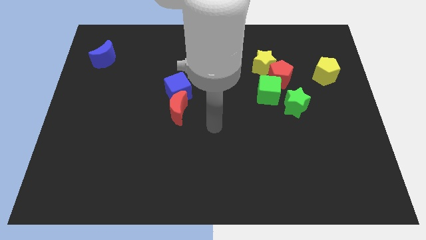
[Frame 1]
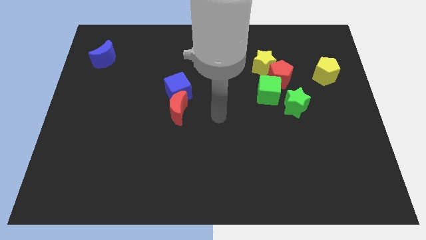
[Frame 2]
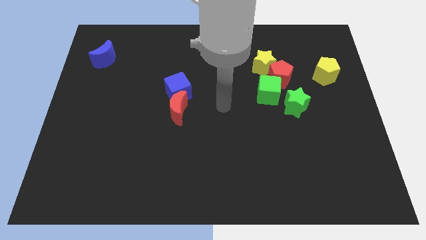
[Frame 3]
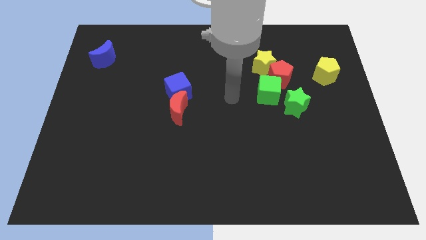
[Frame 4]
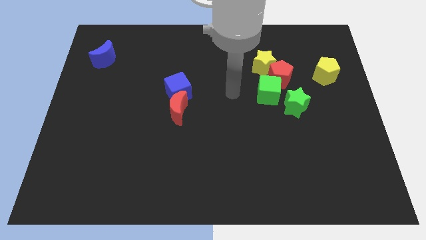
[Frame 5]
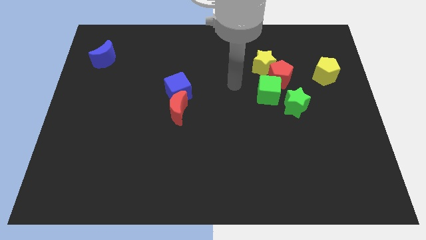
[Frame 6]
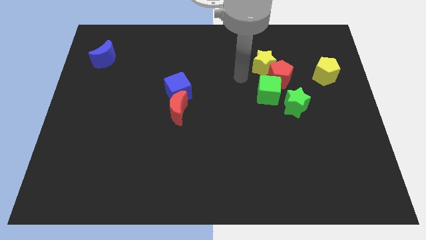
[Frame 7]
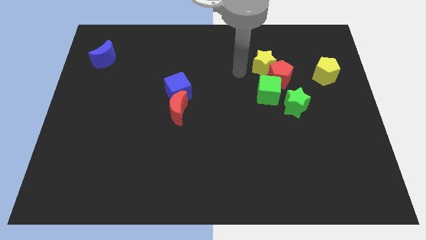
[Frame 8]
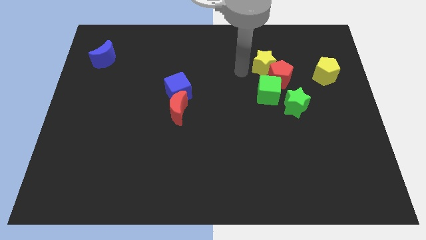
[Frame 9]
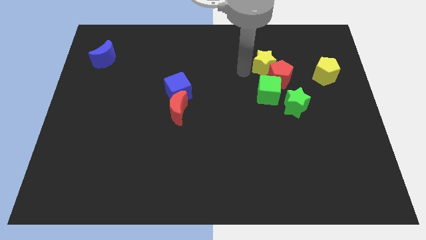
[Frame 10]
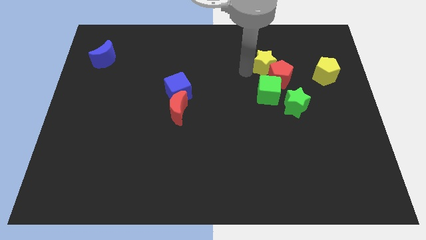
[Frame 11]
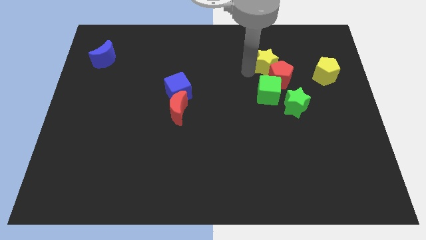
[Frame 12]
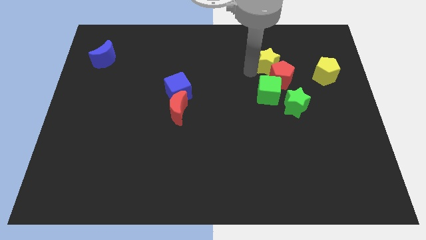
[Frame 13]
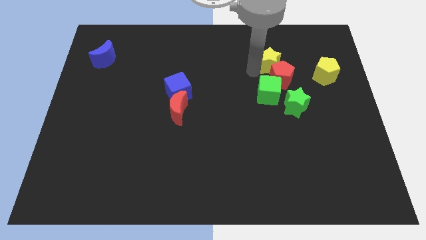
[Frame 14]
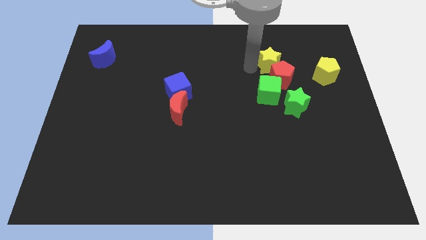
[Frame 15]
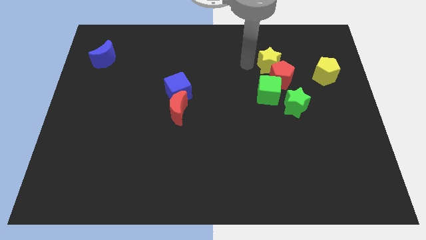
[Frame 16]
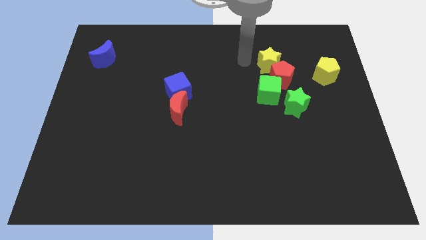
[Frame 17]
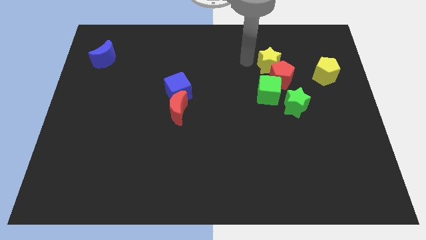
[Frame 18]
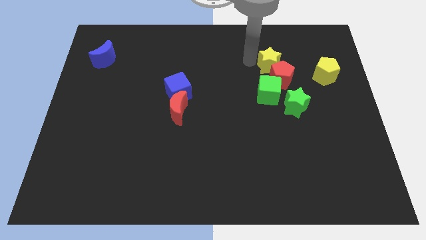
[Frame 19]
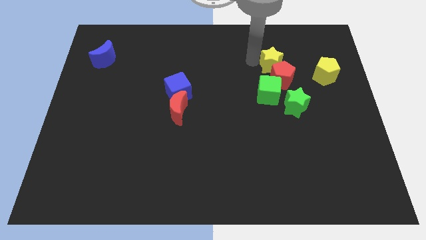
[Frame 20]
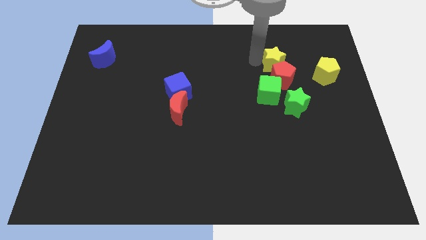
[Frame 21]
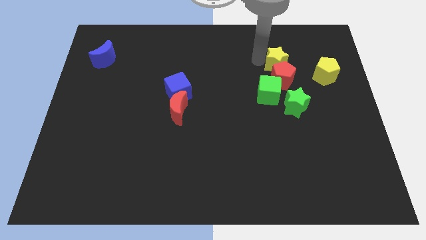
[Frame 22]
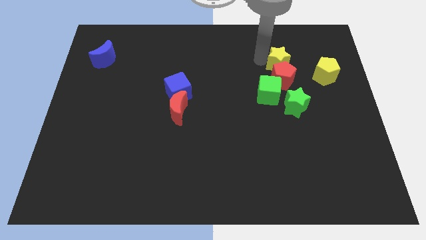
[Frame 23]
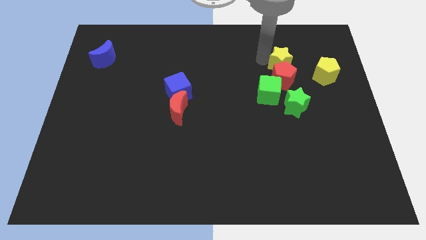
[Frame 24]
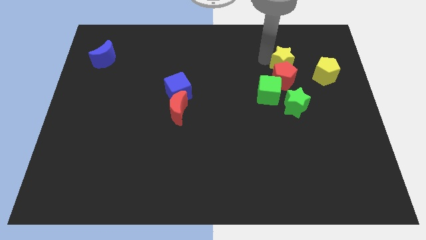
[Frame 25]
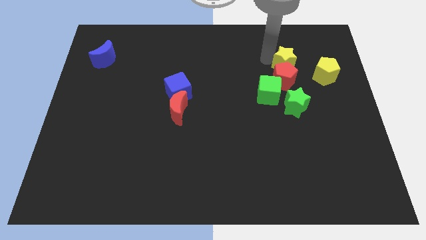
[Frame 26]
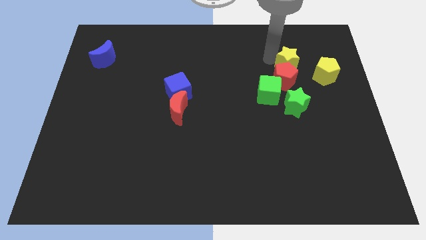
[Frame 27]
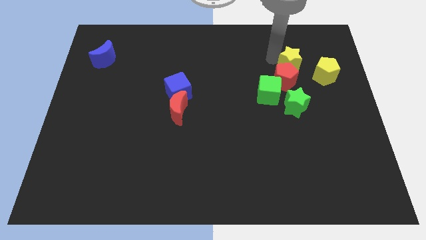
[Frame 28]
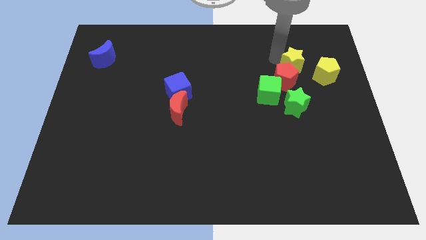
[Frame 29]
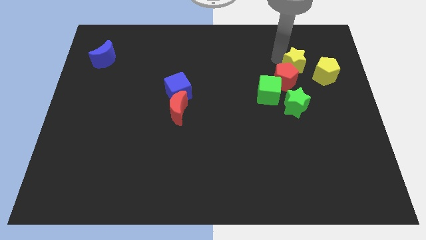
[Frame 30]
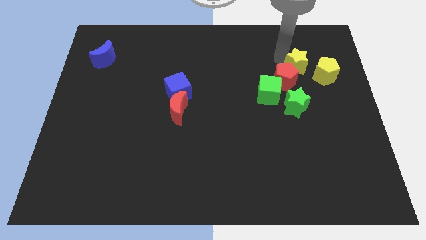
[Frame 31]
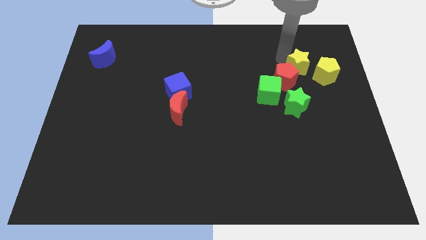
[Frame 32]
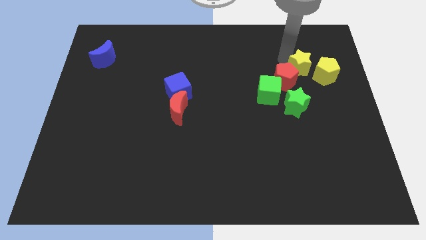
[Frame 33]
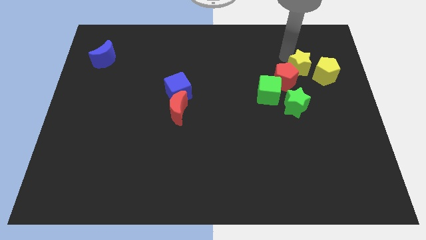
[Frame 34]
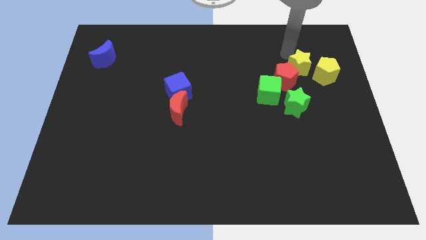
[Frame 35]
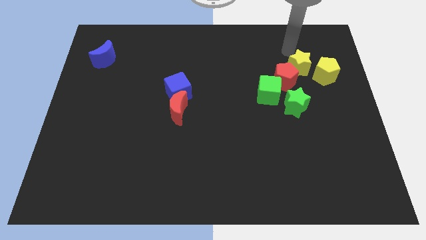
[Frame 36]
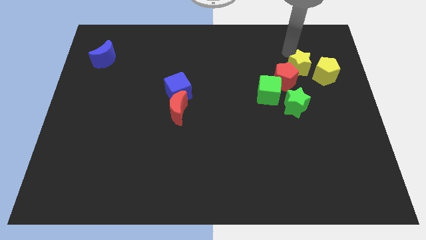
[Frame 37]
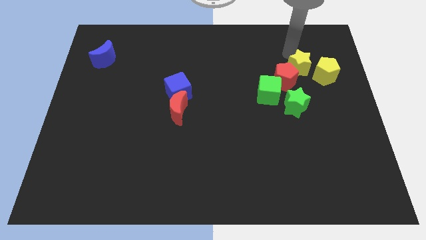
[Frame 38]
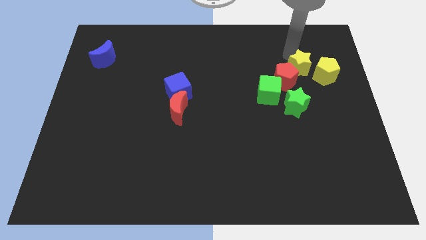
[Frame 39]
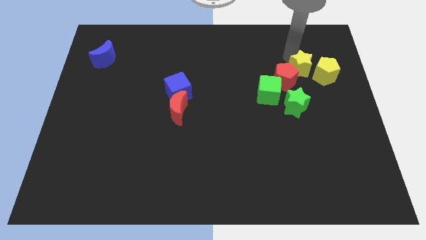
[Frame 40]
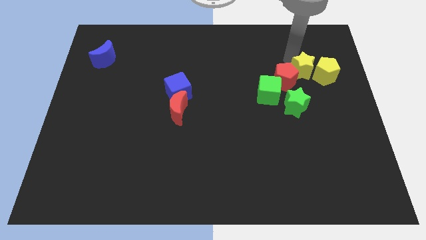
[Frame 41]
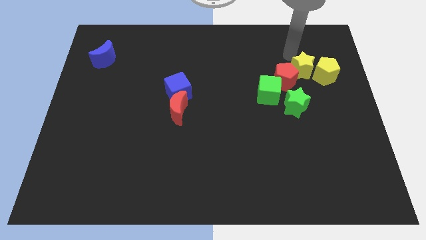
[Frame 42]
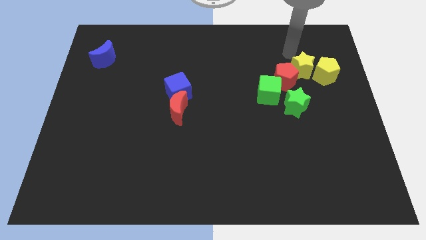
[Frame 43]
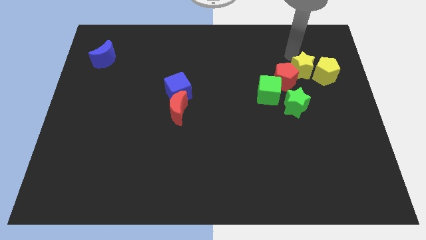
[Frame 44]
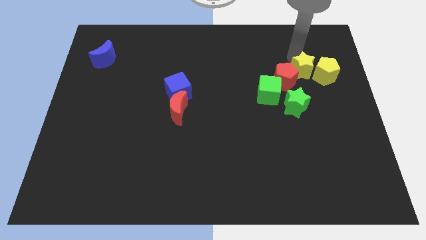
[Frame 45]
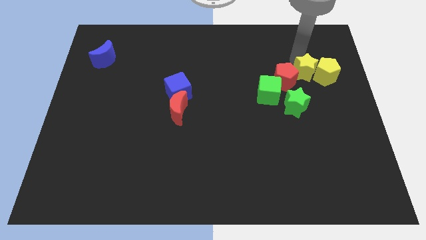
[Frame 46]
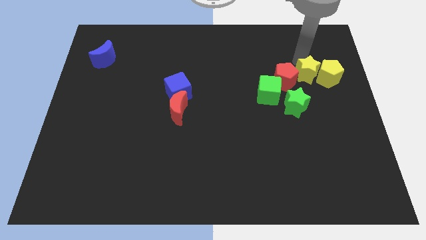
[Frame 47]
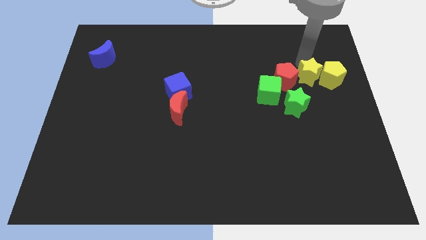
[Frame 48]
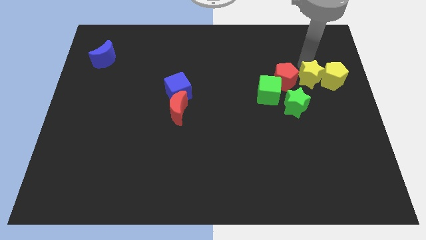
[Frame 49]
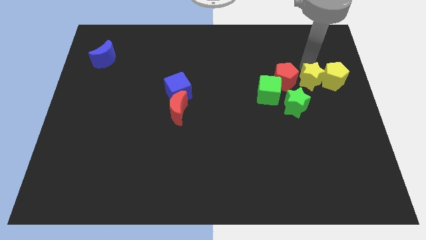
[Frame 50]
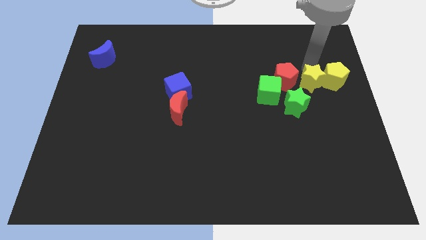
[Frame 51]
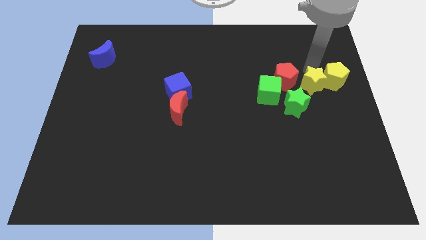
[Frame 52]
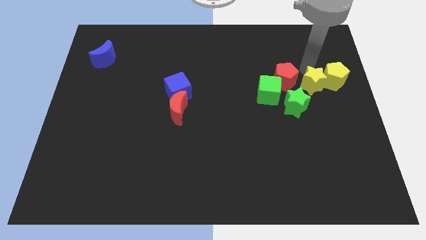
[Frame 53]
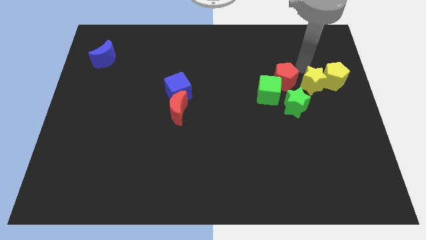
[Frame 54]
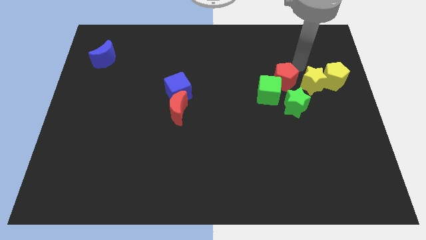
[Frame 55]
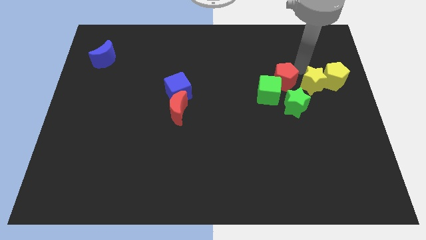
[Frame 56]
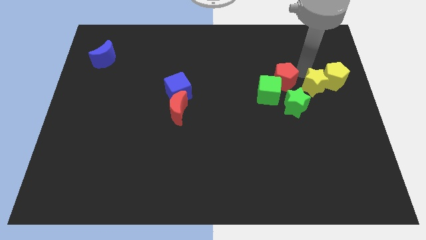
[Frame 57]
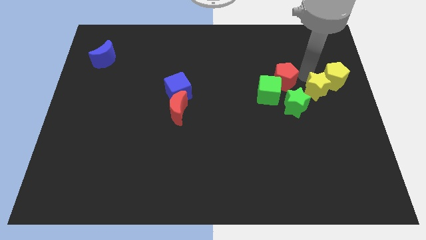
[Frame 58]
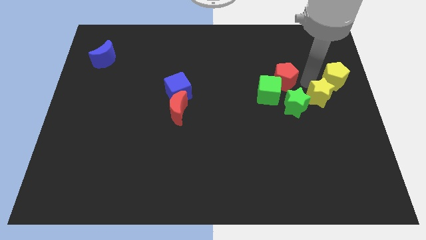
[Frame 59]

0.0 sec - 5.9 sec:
push the yellow star to the right side

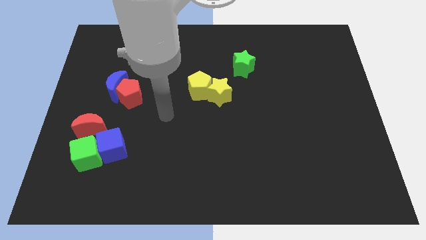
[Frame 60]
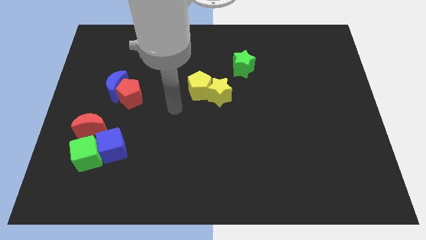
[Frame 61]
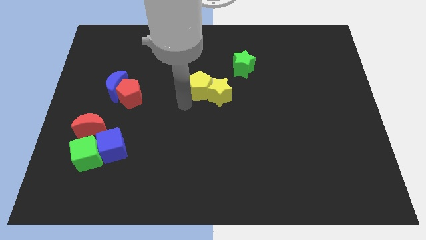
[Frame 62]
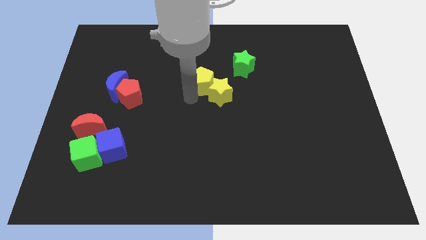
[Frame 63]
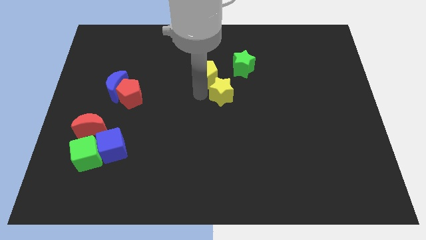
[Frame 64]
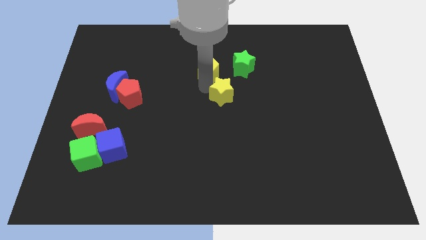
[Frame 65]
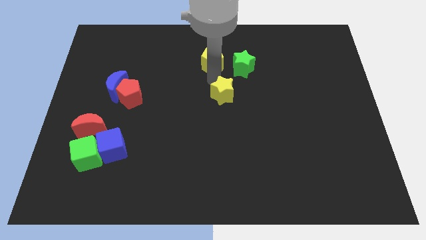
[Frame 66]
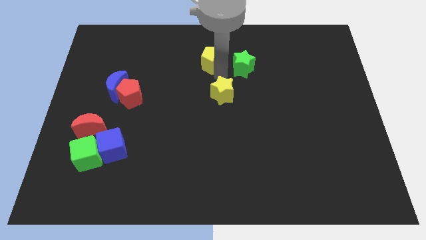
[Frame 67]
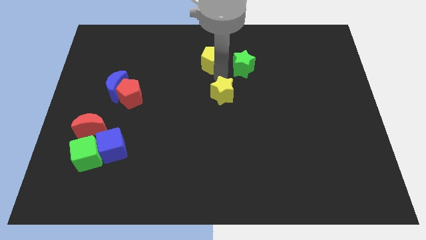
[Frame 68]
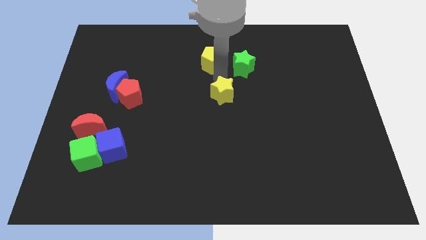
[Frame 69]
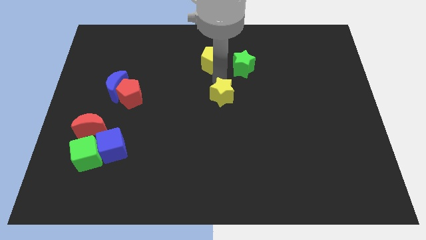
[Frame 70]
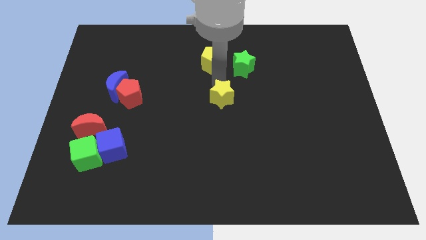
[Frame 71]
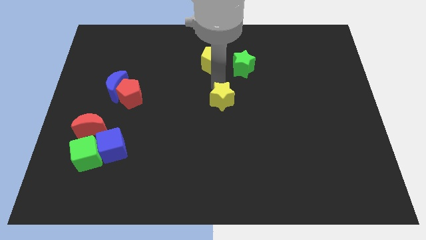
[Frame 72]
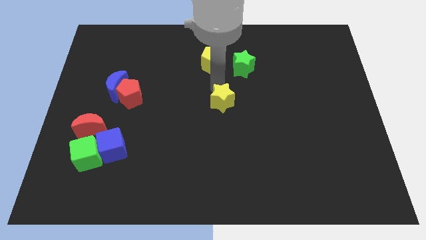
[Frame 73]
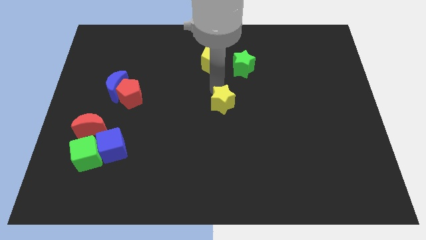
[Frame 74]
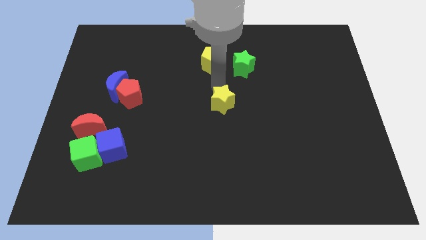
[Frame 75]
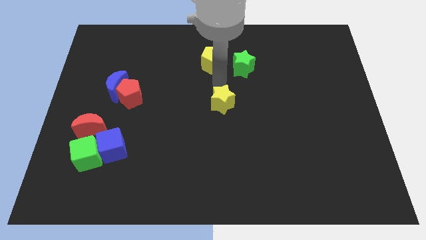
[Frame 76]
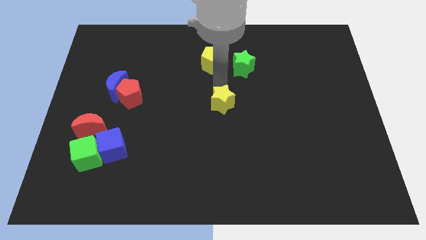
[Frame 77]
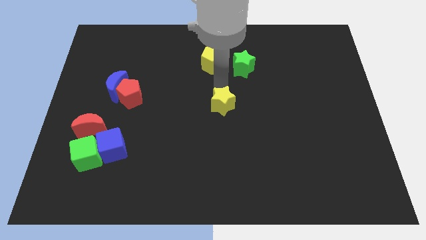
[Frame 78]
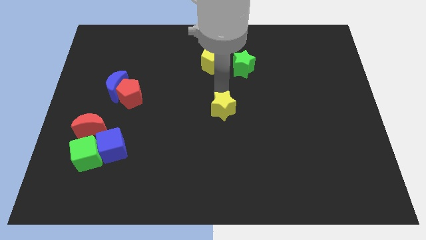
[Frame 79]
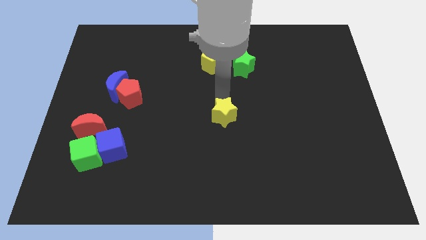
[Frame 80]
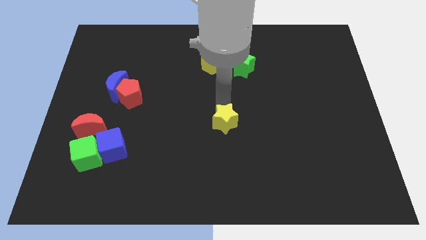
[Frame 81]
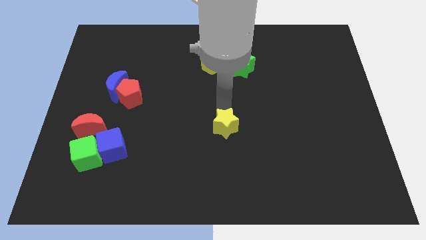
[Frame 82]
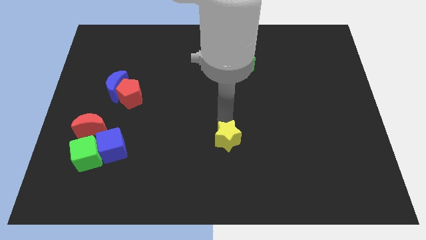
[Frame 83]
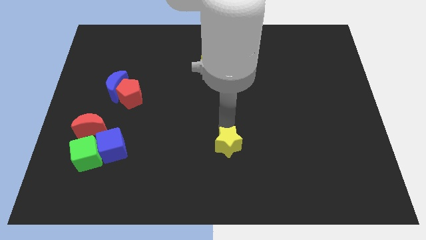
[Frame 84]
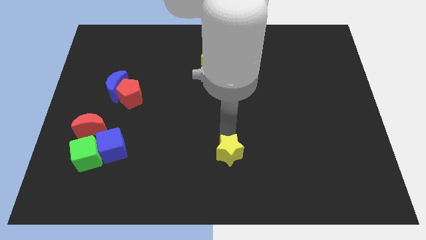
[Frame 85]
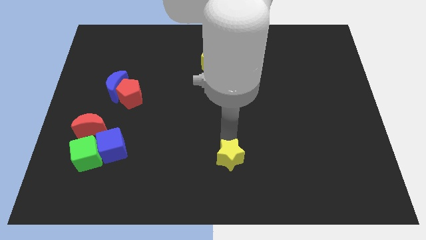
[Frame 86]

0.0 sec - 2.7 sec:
slide the yellow star to the bottom side
